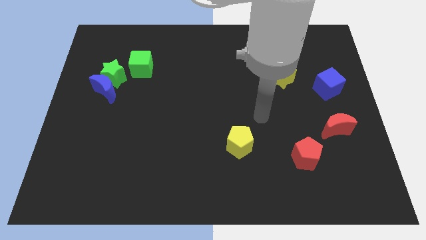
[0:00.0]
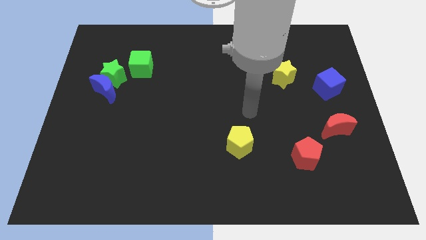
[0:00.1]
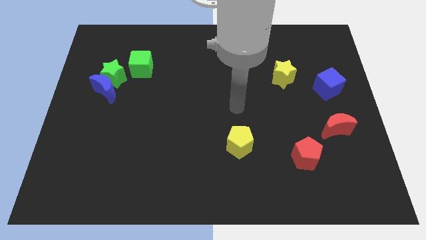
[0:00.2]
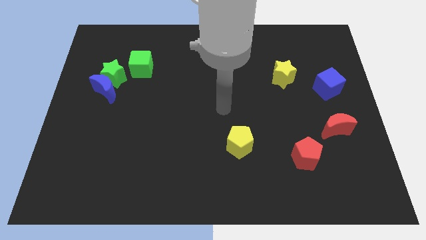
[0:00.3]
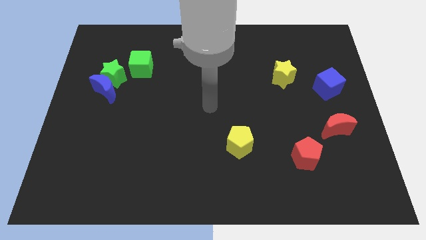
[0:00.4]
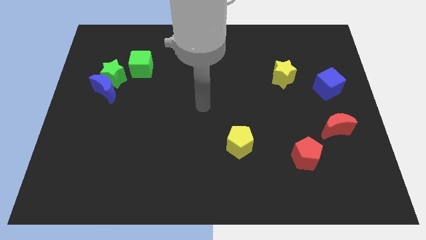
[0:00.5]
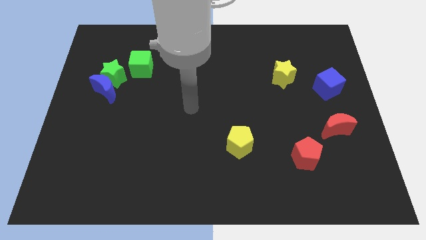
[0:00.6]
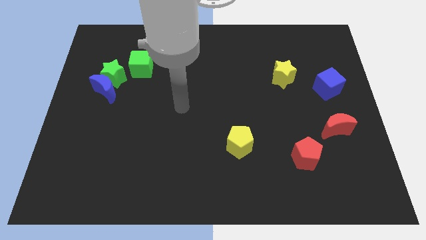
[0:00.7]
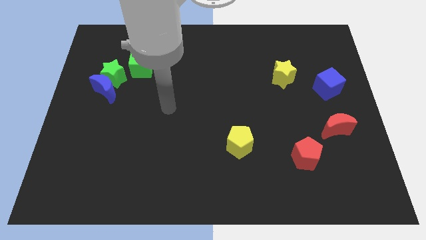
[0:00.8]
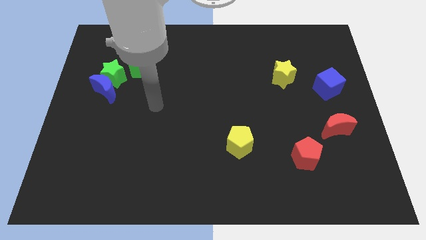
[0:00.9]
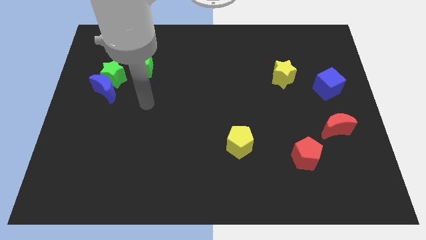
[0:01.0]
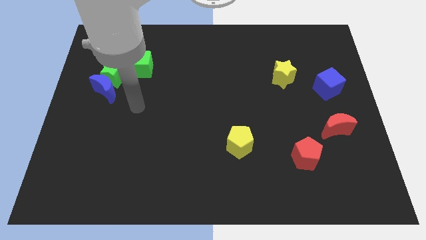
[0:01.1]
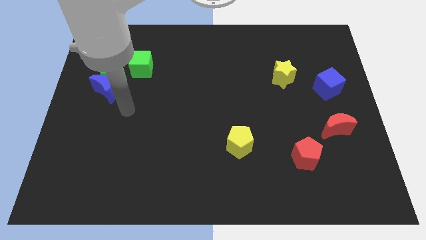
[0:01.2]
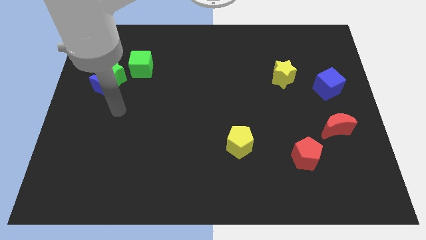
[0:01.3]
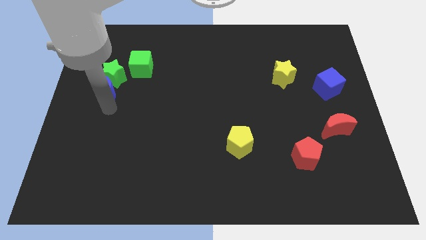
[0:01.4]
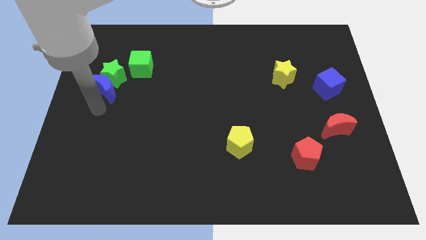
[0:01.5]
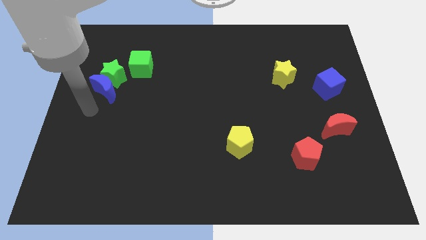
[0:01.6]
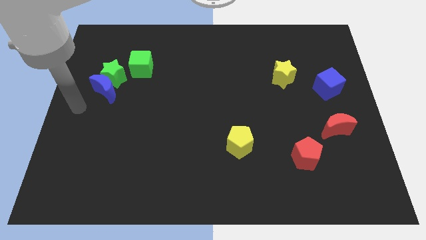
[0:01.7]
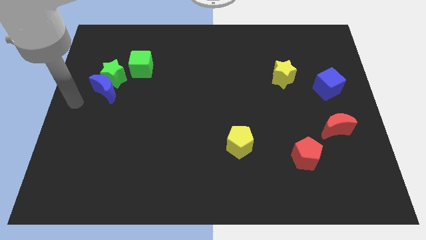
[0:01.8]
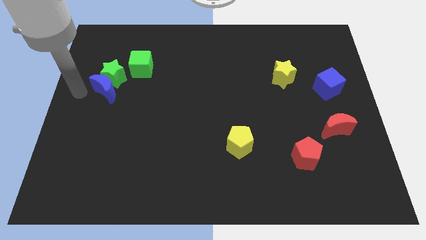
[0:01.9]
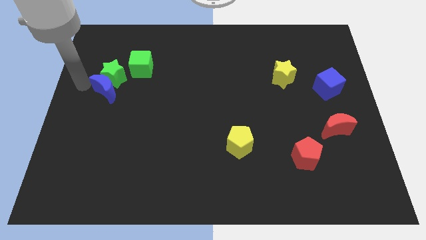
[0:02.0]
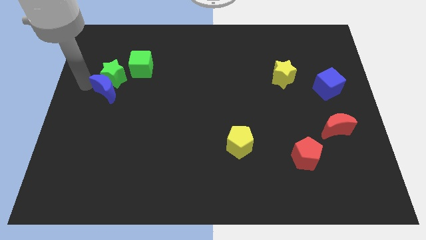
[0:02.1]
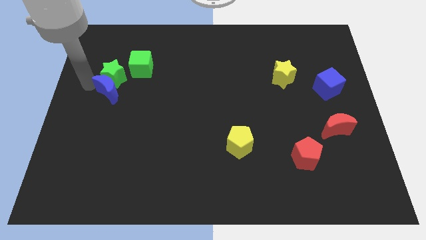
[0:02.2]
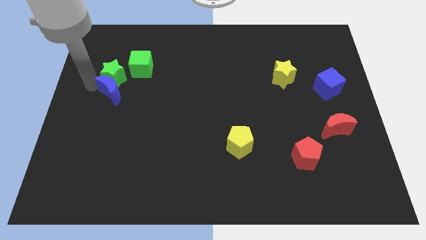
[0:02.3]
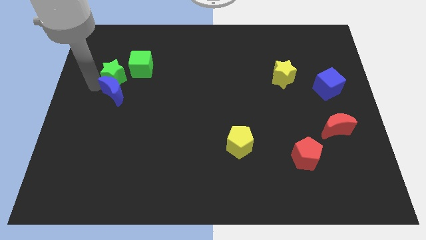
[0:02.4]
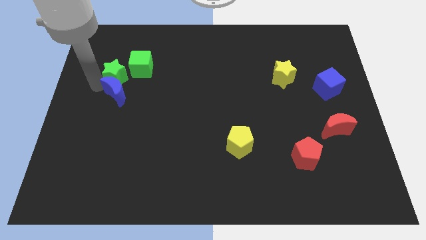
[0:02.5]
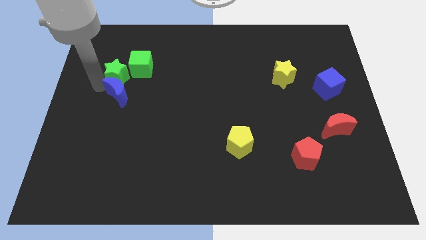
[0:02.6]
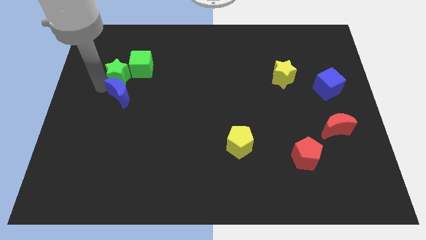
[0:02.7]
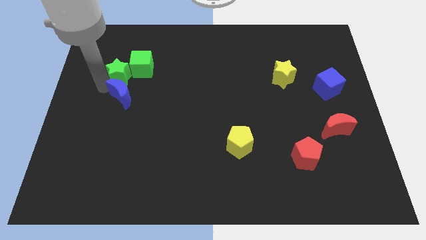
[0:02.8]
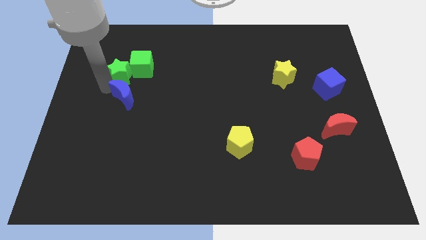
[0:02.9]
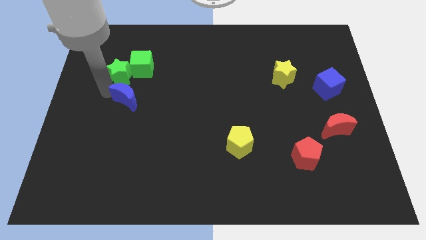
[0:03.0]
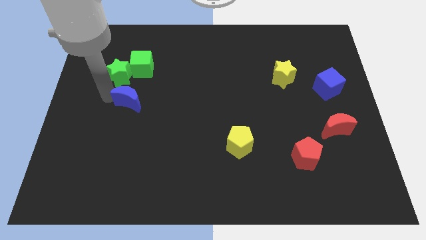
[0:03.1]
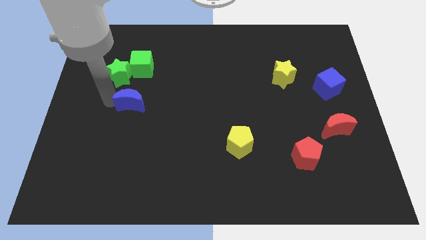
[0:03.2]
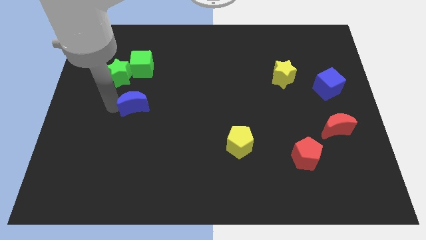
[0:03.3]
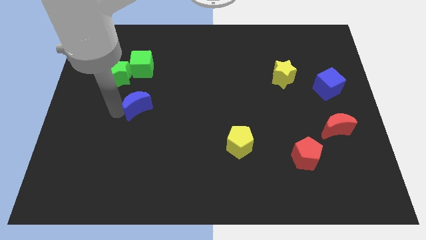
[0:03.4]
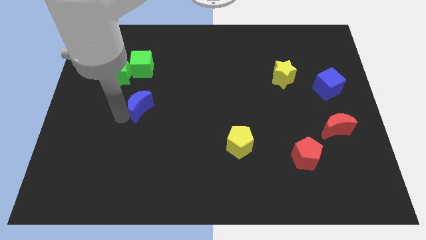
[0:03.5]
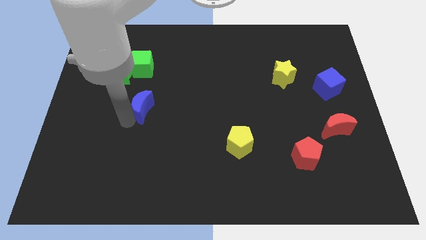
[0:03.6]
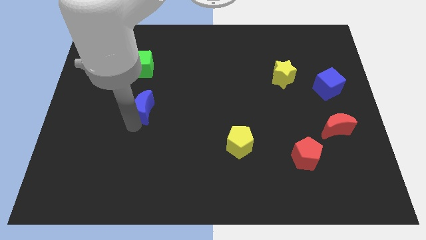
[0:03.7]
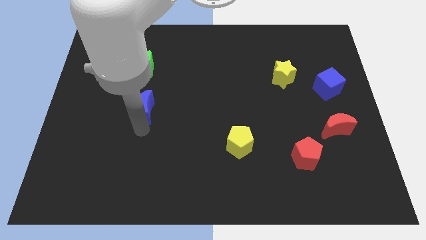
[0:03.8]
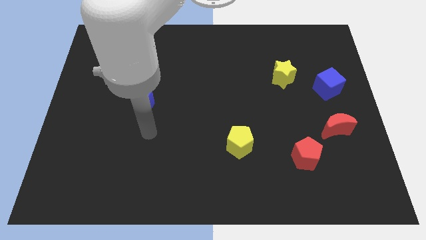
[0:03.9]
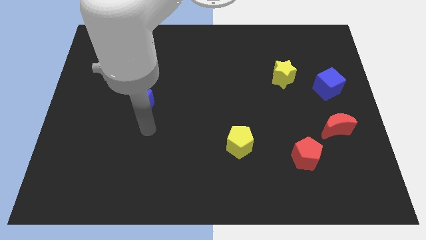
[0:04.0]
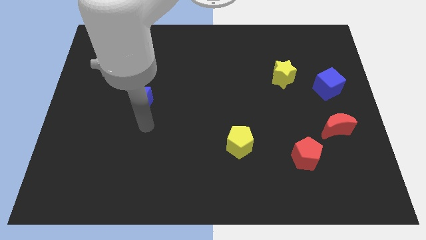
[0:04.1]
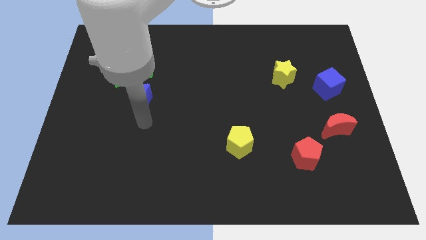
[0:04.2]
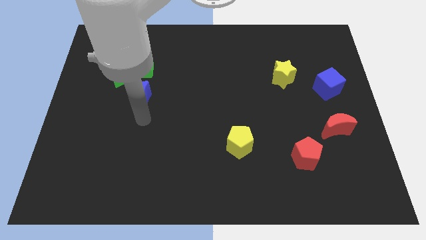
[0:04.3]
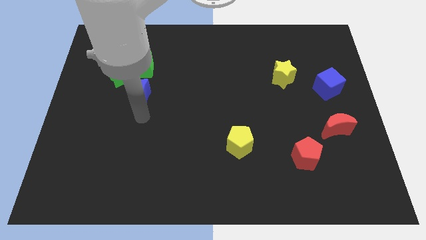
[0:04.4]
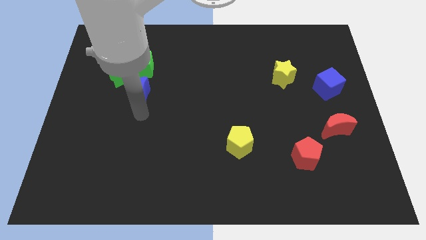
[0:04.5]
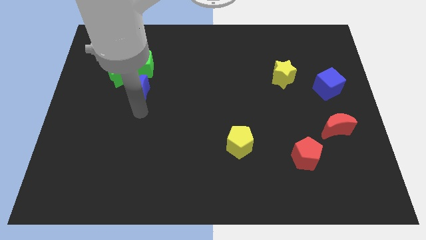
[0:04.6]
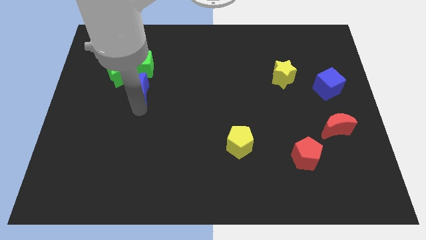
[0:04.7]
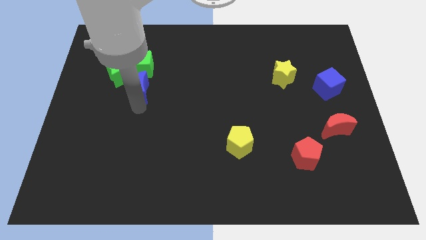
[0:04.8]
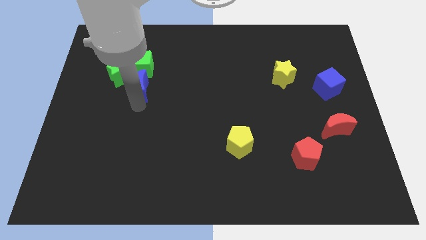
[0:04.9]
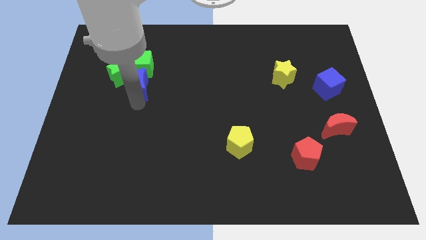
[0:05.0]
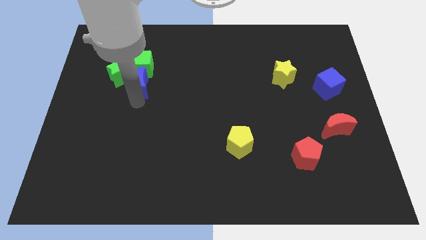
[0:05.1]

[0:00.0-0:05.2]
move the blue moon close to the green cube

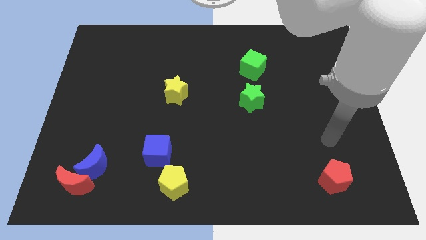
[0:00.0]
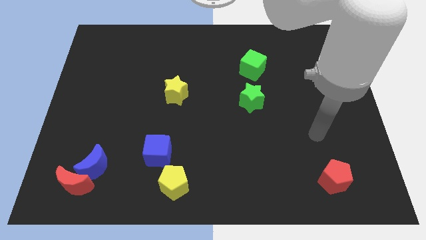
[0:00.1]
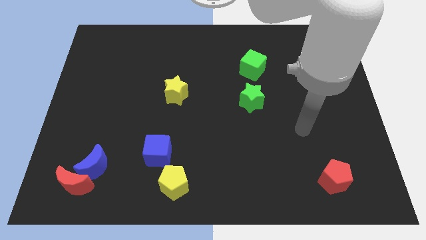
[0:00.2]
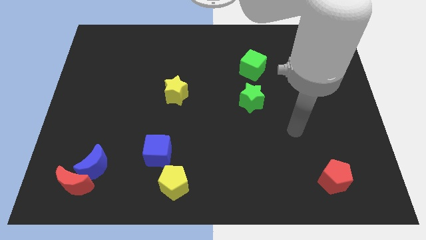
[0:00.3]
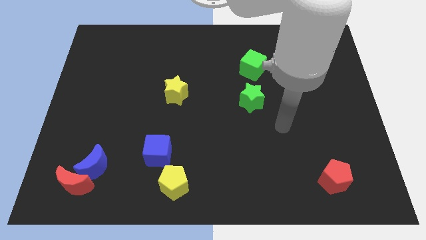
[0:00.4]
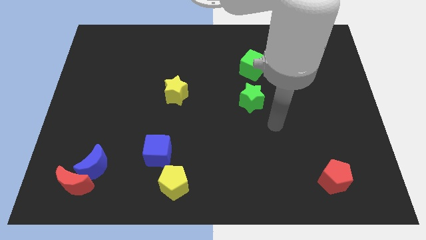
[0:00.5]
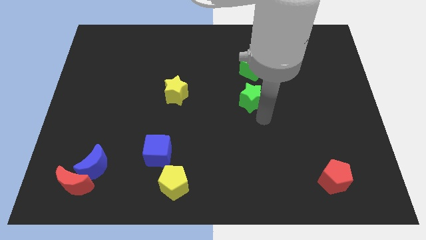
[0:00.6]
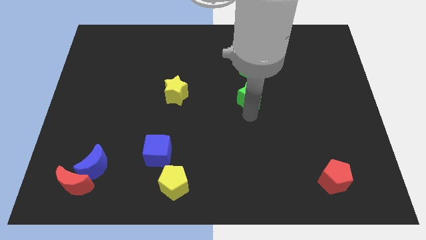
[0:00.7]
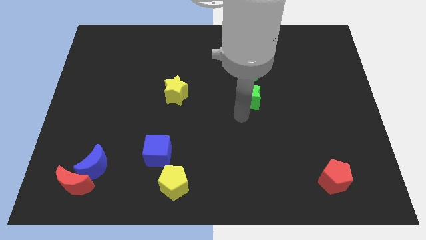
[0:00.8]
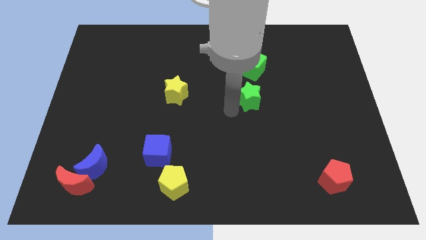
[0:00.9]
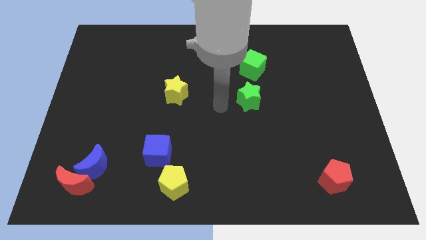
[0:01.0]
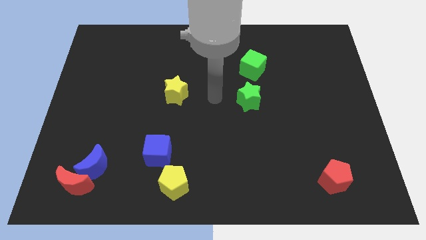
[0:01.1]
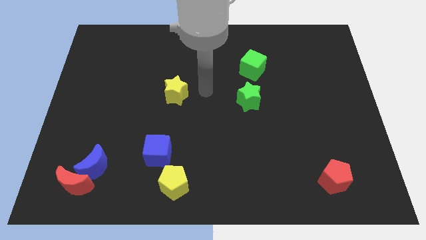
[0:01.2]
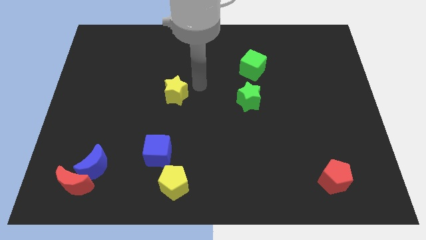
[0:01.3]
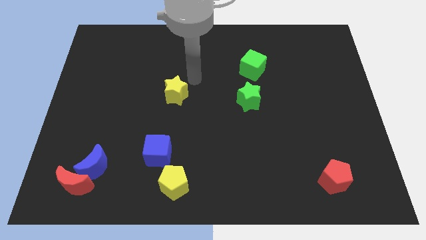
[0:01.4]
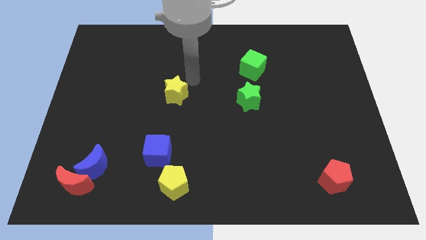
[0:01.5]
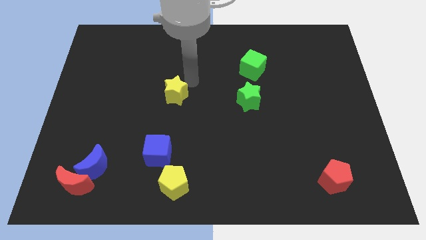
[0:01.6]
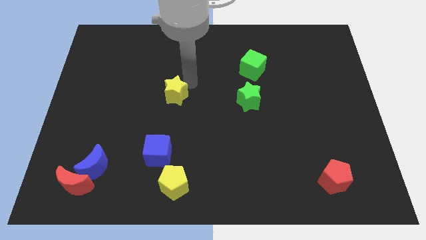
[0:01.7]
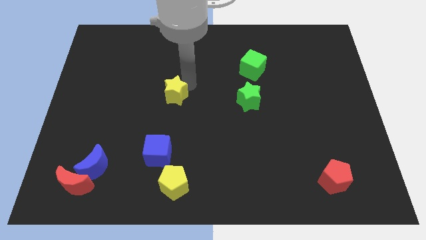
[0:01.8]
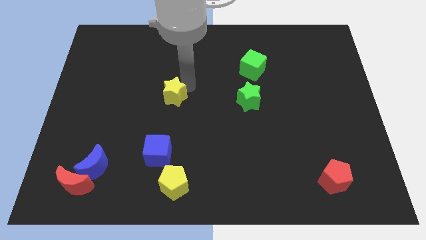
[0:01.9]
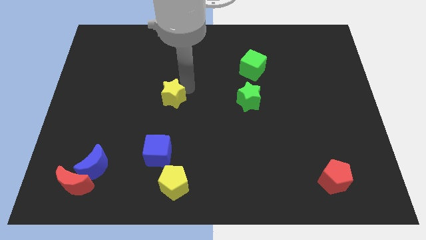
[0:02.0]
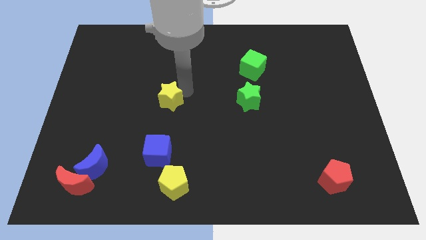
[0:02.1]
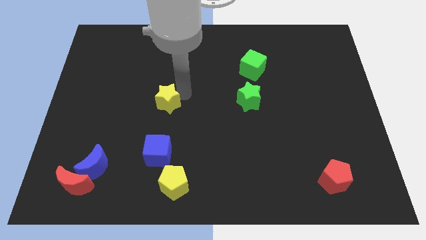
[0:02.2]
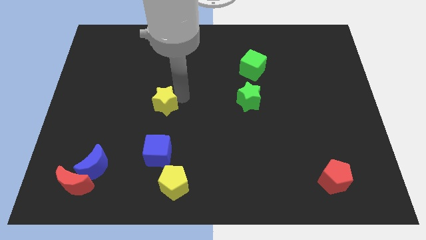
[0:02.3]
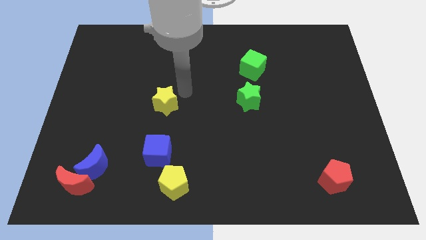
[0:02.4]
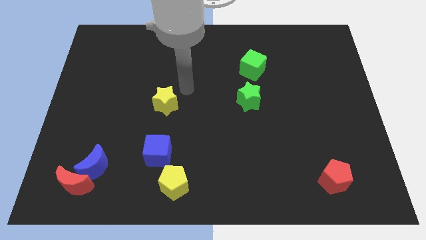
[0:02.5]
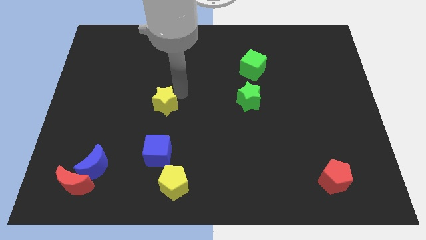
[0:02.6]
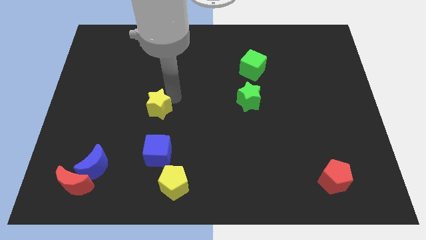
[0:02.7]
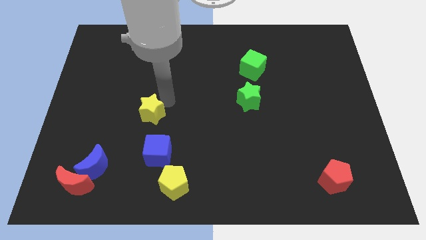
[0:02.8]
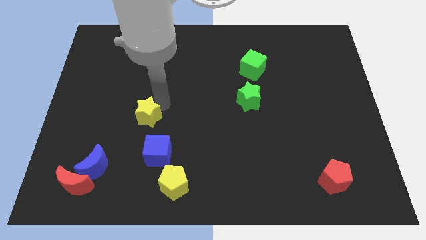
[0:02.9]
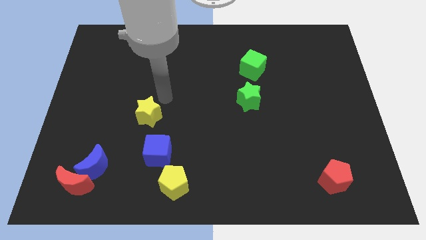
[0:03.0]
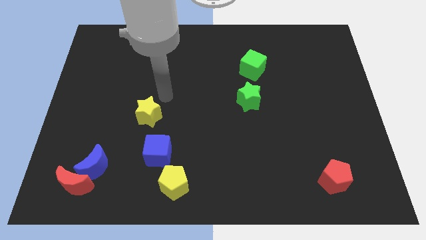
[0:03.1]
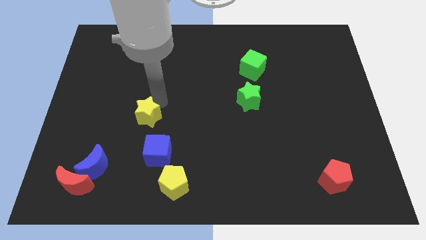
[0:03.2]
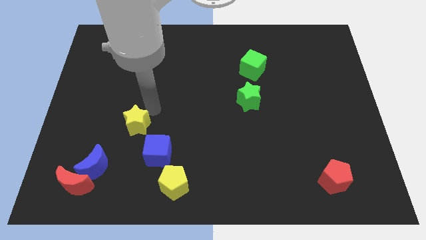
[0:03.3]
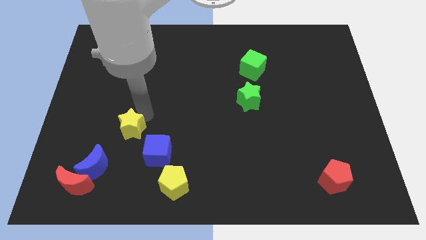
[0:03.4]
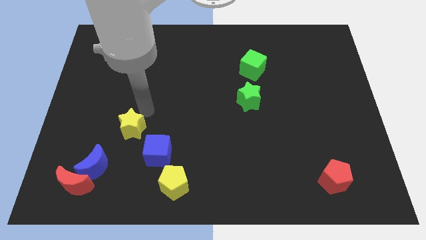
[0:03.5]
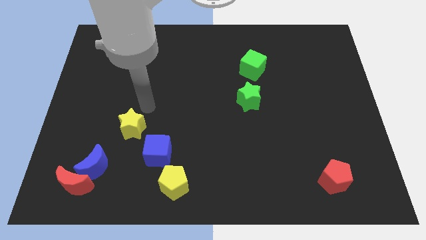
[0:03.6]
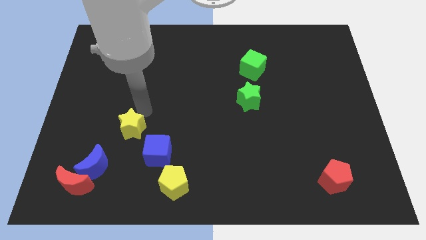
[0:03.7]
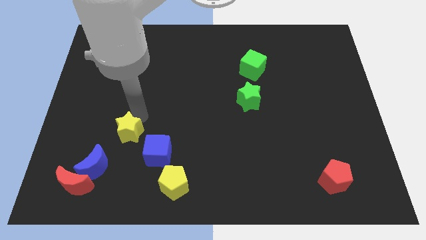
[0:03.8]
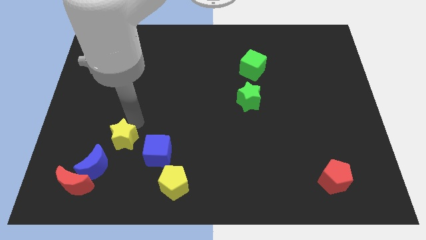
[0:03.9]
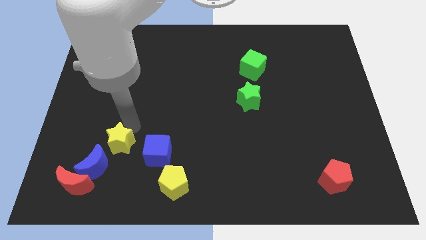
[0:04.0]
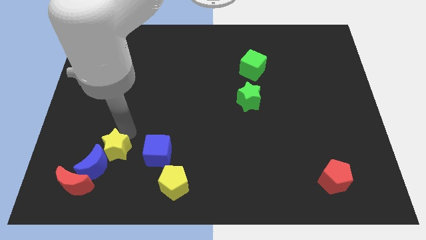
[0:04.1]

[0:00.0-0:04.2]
move the yellow star close to the blue moon
